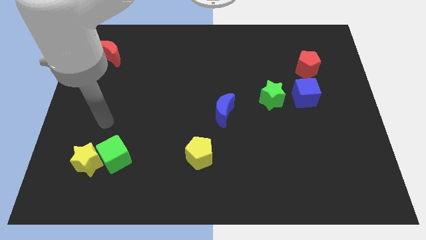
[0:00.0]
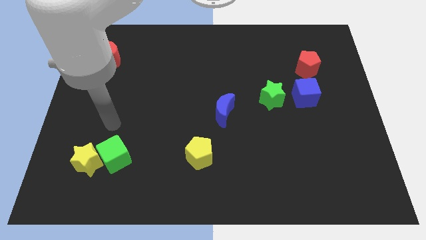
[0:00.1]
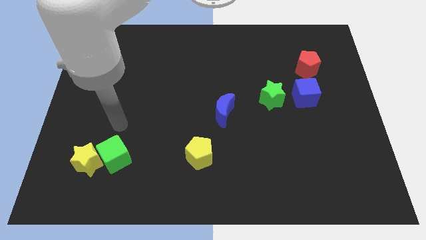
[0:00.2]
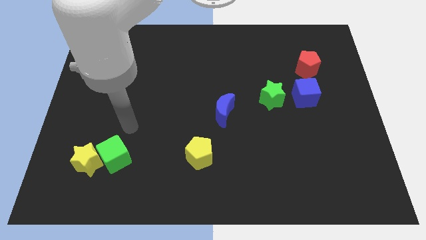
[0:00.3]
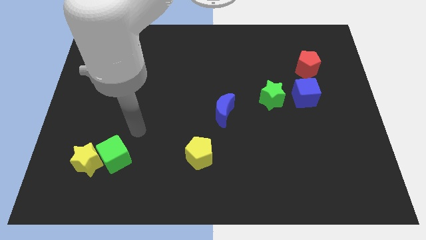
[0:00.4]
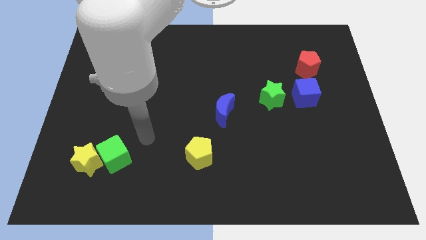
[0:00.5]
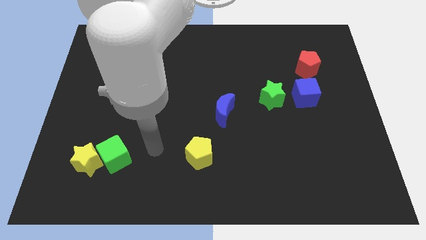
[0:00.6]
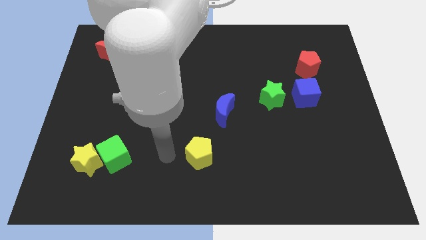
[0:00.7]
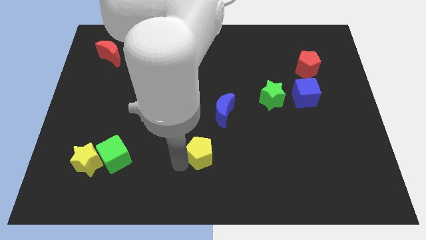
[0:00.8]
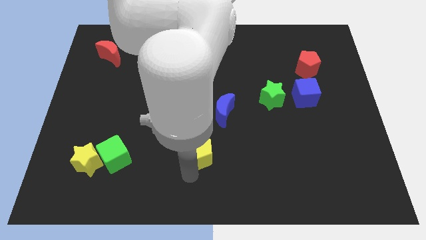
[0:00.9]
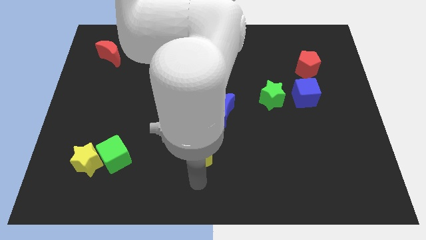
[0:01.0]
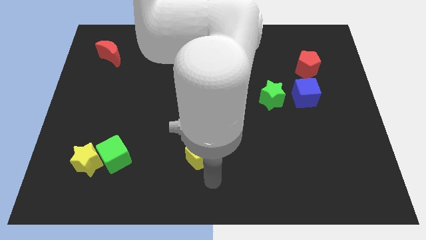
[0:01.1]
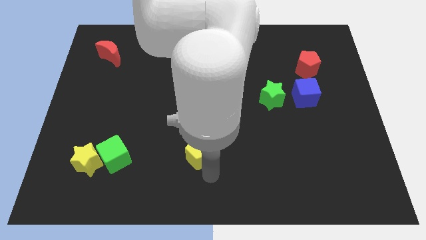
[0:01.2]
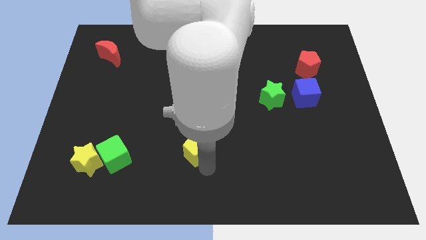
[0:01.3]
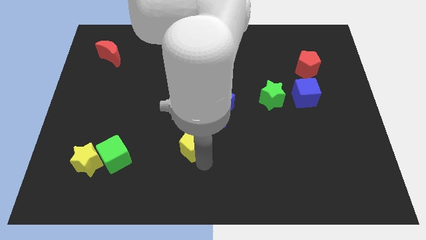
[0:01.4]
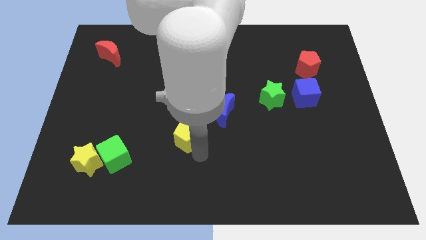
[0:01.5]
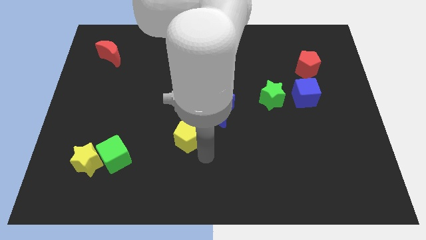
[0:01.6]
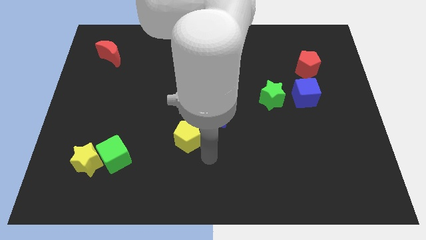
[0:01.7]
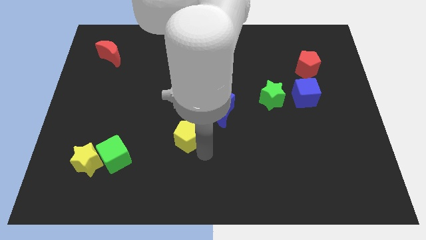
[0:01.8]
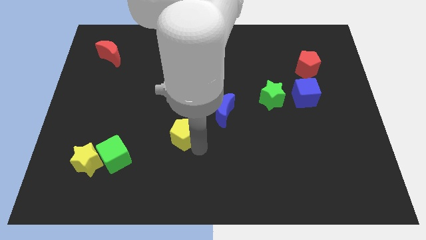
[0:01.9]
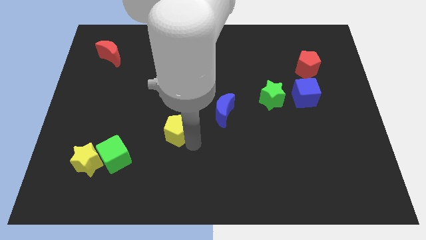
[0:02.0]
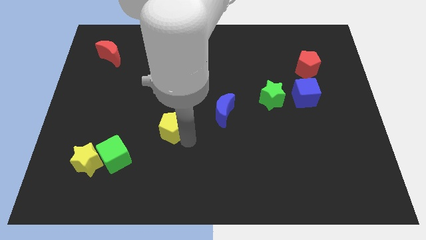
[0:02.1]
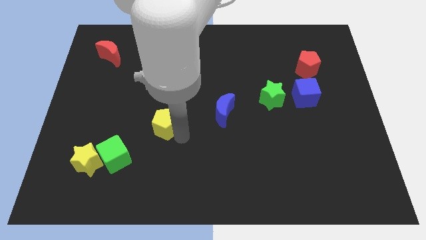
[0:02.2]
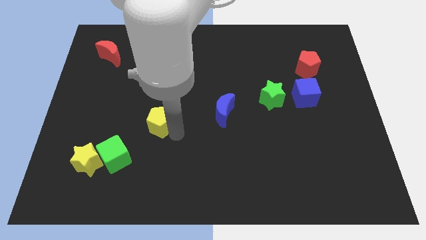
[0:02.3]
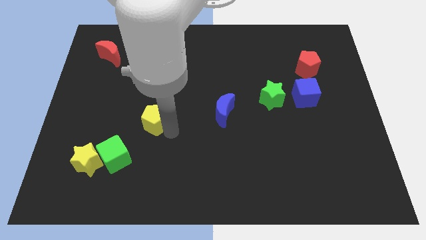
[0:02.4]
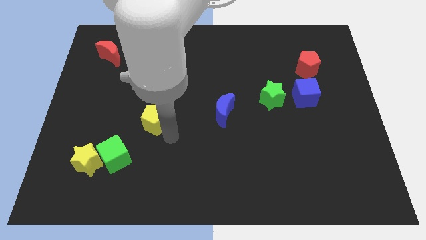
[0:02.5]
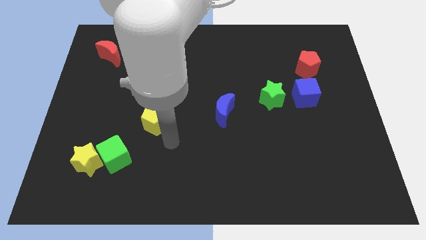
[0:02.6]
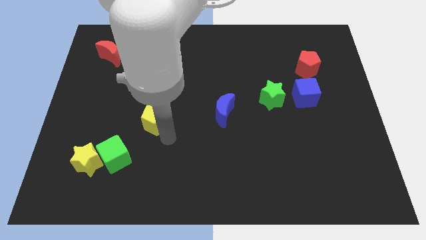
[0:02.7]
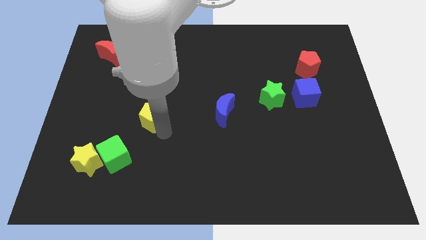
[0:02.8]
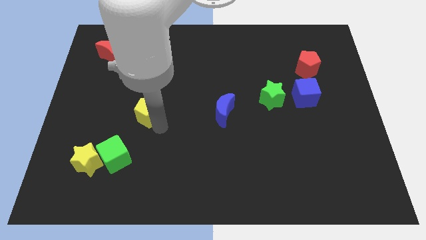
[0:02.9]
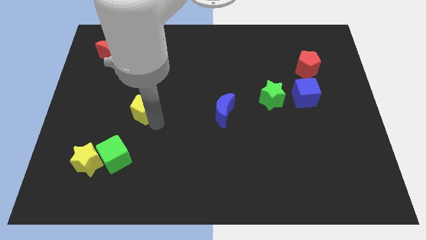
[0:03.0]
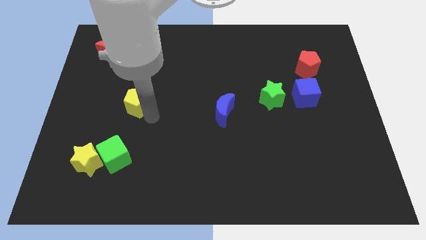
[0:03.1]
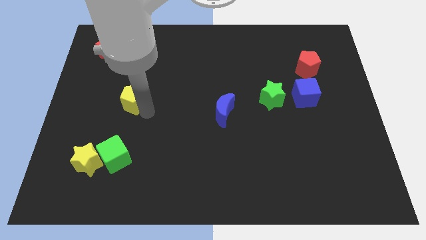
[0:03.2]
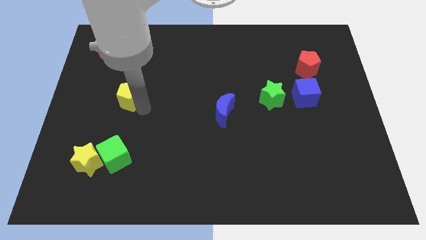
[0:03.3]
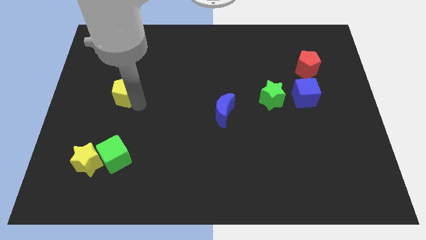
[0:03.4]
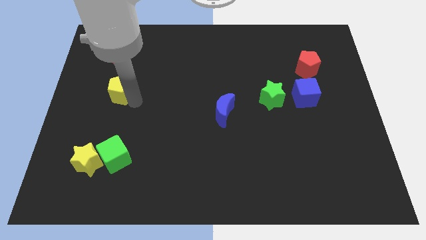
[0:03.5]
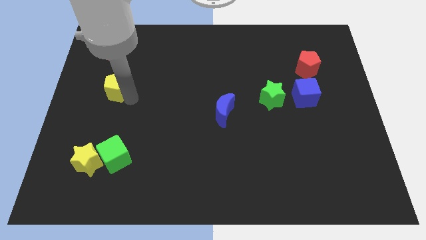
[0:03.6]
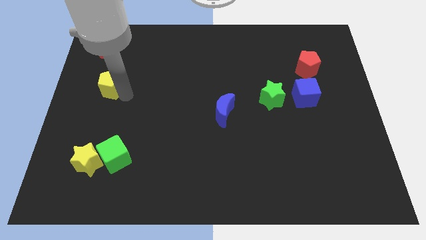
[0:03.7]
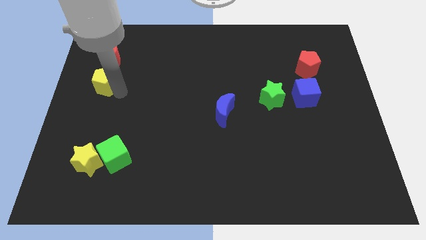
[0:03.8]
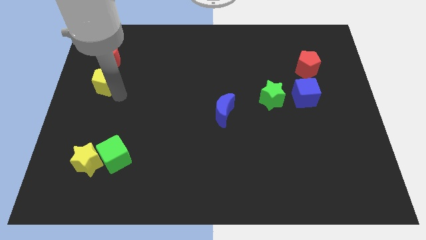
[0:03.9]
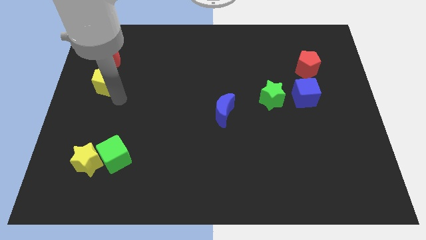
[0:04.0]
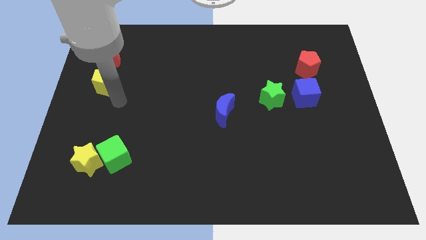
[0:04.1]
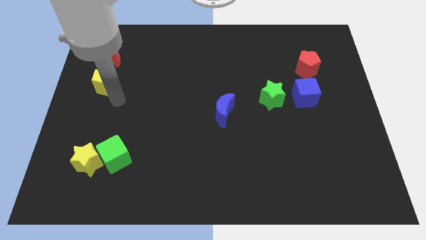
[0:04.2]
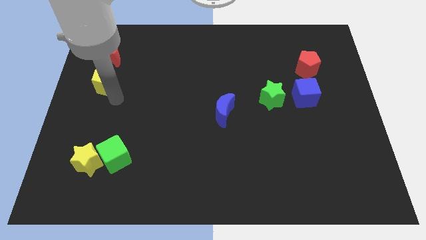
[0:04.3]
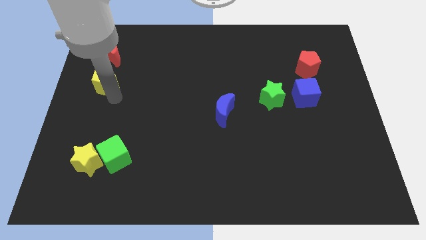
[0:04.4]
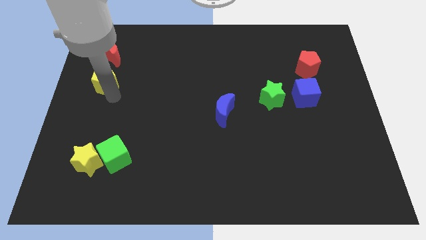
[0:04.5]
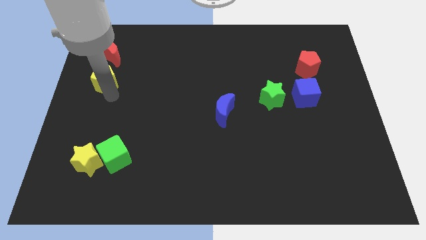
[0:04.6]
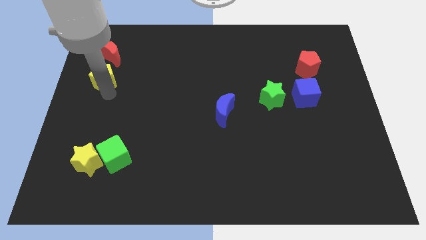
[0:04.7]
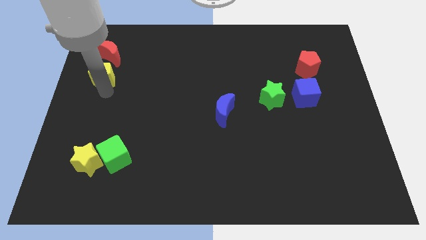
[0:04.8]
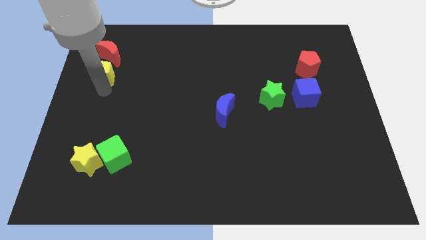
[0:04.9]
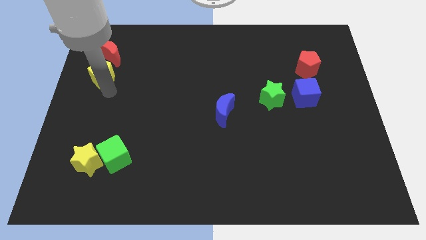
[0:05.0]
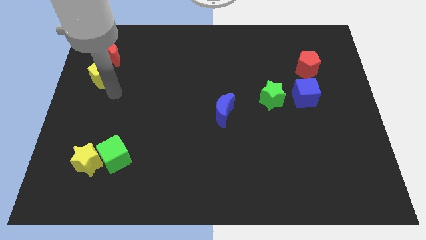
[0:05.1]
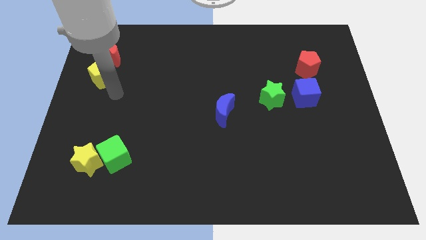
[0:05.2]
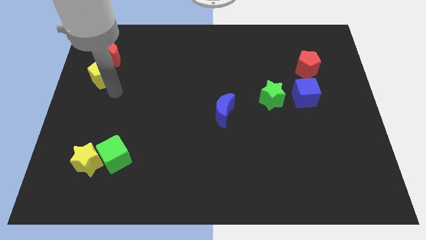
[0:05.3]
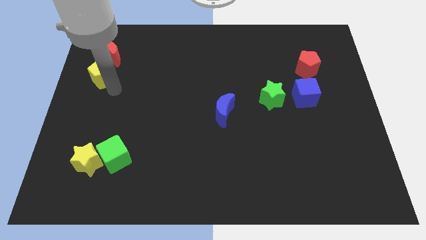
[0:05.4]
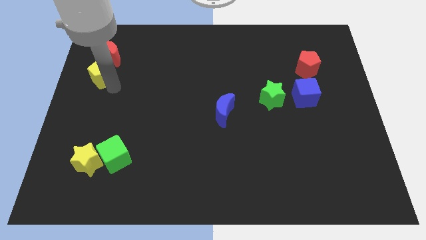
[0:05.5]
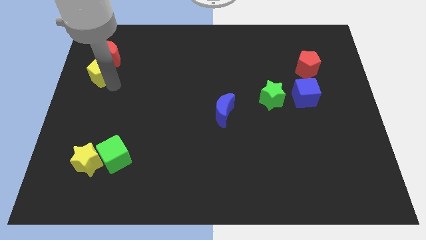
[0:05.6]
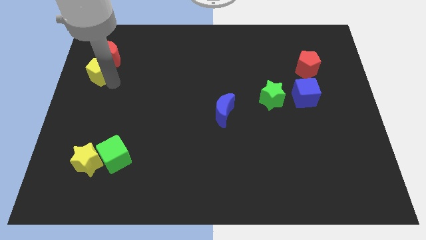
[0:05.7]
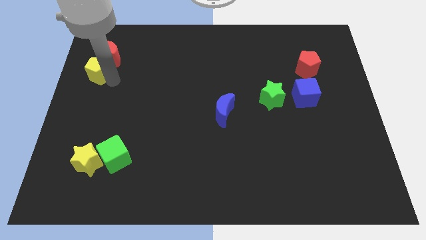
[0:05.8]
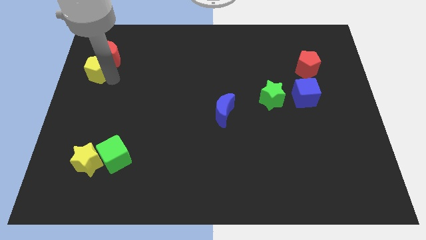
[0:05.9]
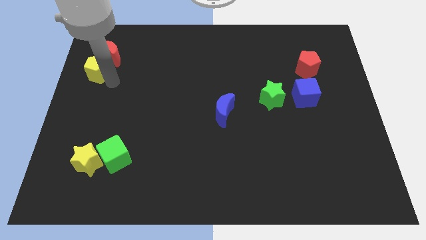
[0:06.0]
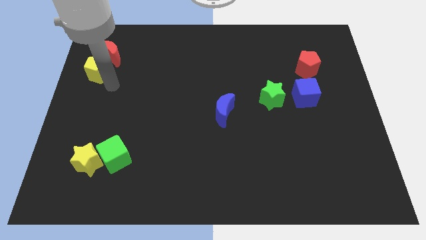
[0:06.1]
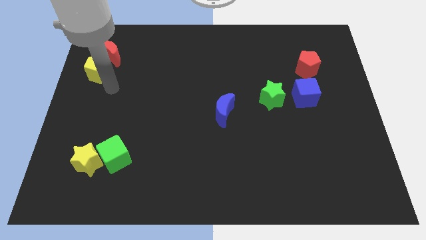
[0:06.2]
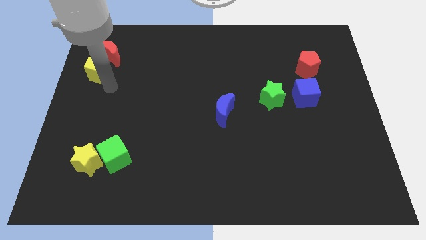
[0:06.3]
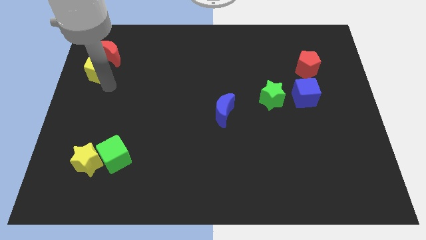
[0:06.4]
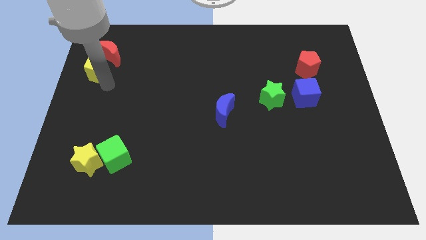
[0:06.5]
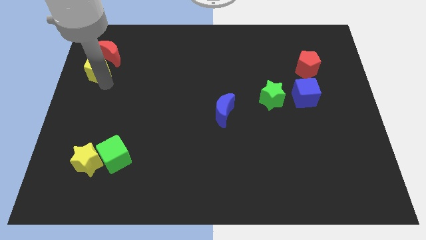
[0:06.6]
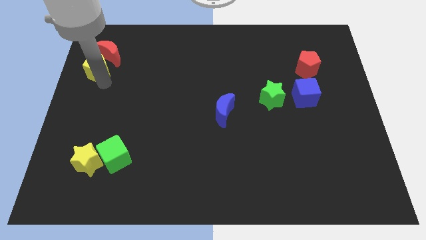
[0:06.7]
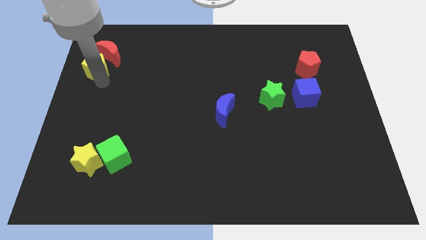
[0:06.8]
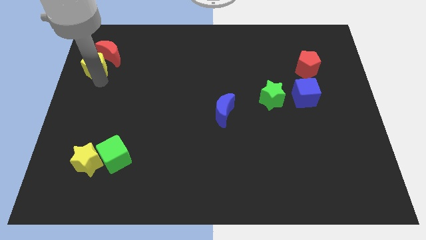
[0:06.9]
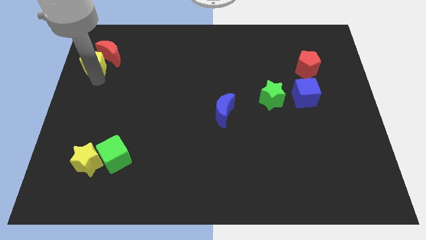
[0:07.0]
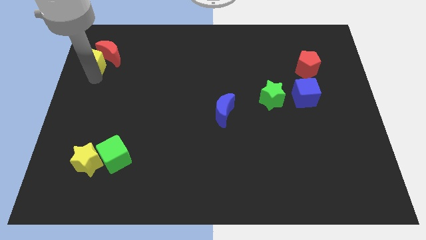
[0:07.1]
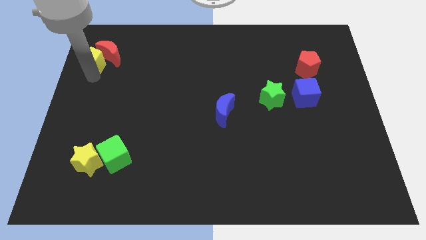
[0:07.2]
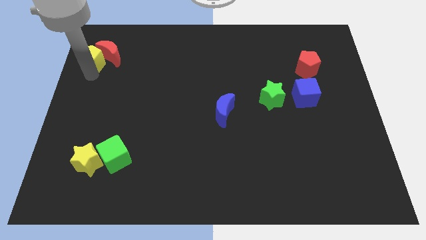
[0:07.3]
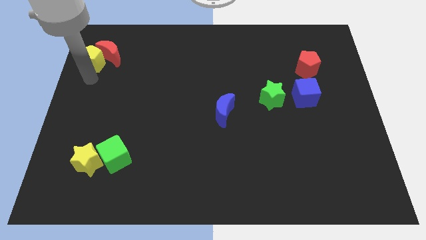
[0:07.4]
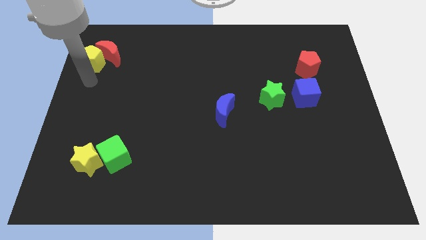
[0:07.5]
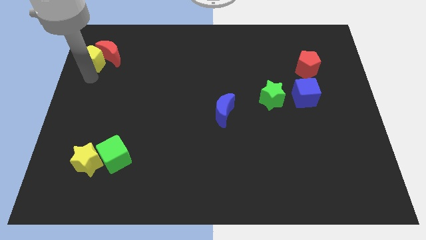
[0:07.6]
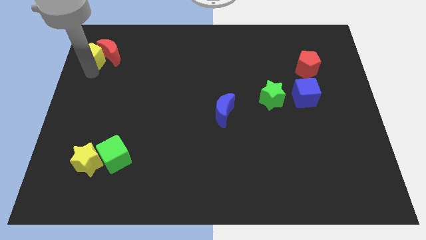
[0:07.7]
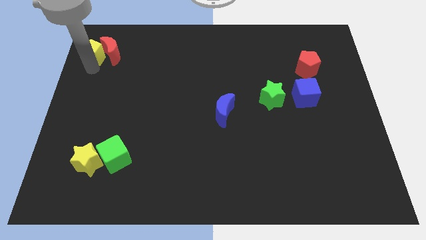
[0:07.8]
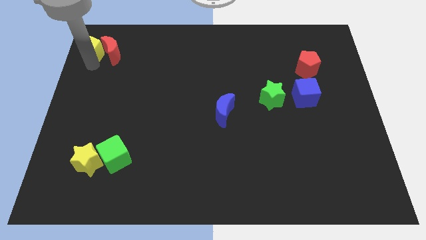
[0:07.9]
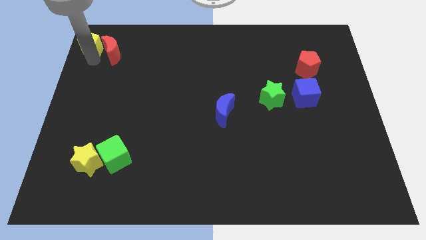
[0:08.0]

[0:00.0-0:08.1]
put the yellow pentagon to the top left of the board
